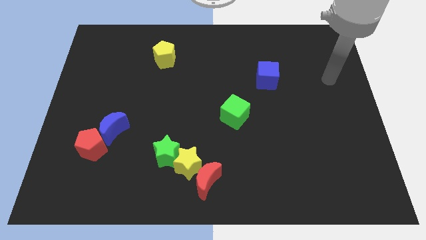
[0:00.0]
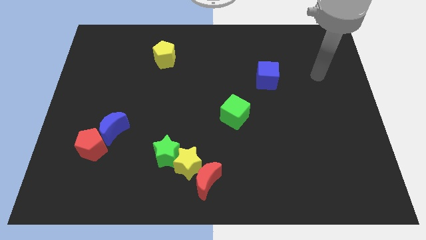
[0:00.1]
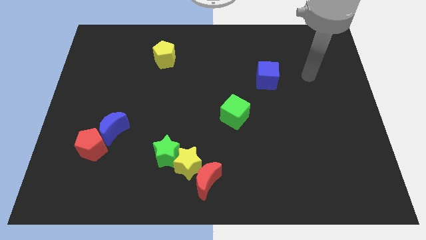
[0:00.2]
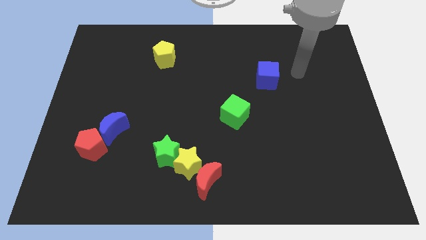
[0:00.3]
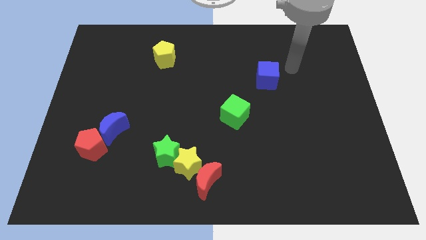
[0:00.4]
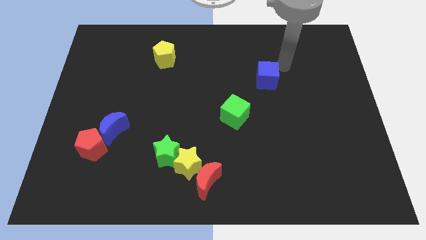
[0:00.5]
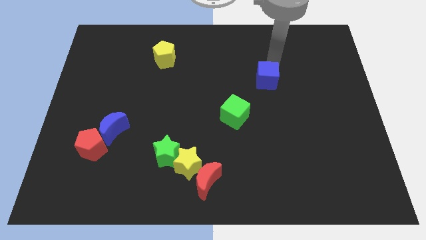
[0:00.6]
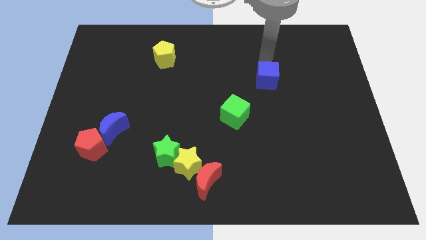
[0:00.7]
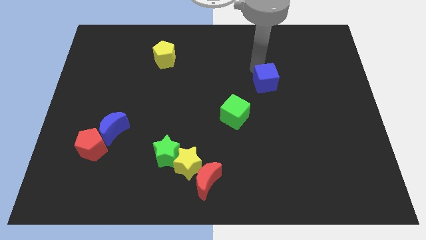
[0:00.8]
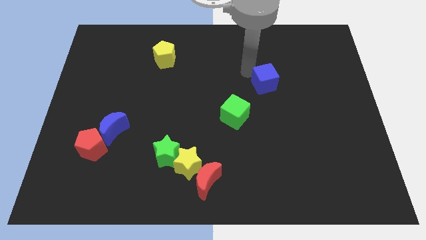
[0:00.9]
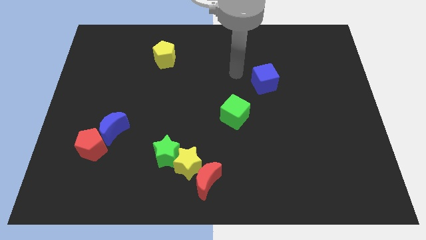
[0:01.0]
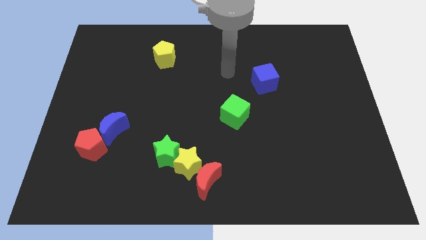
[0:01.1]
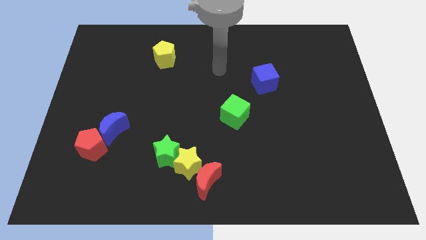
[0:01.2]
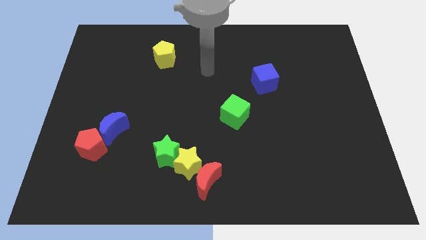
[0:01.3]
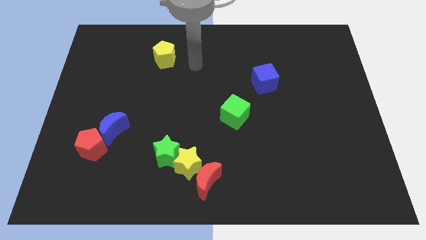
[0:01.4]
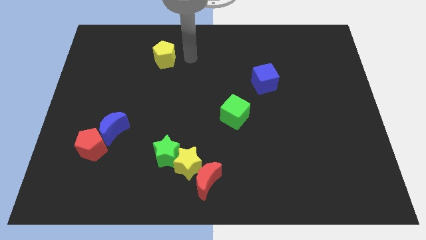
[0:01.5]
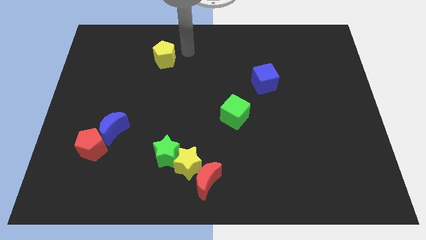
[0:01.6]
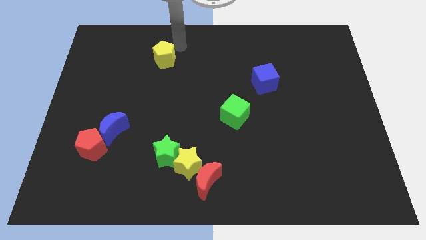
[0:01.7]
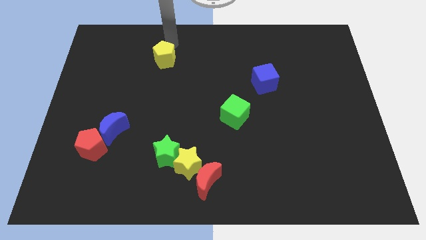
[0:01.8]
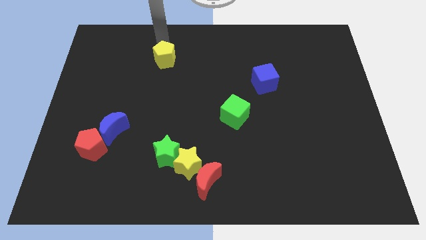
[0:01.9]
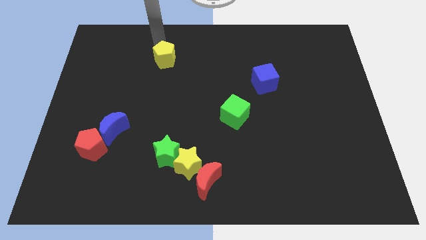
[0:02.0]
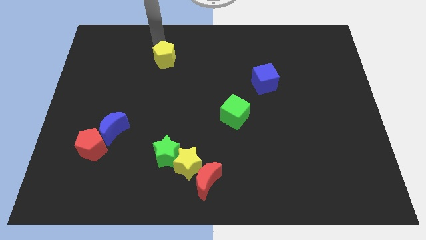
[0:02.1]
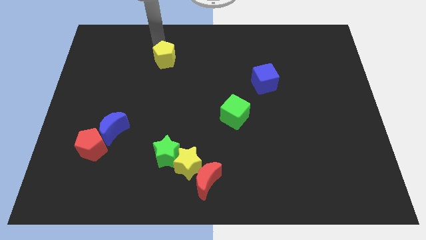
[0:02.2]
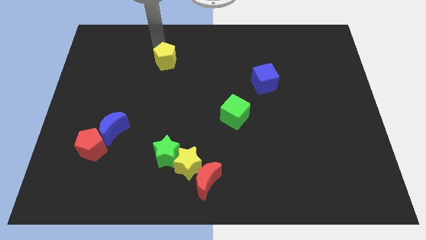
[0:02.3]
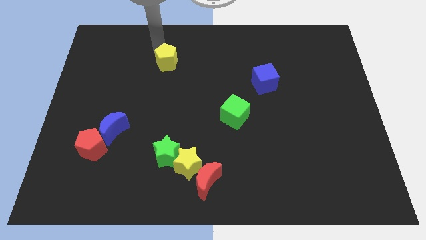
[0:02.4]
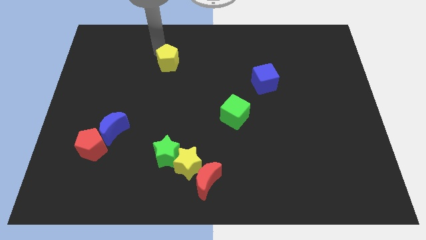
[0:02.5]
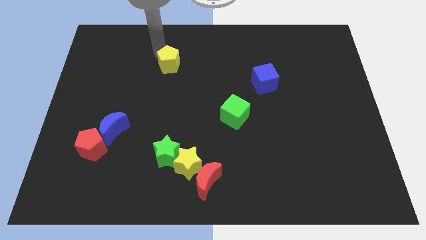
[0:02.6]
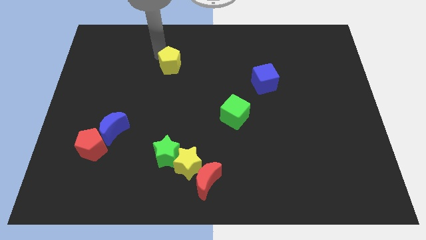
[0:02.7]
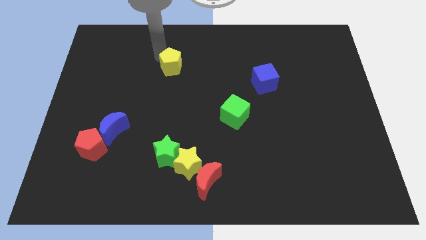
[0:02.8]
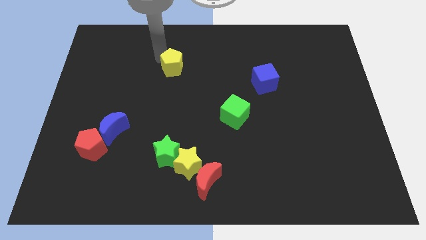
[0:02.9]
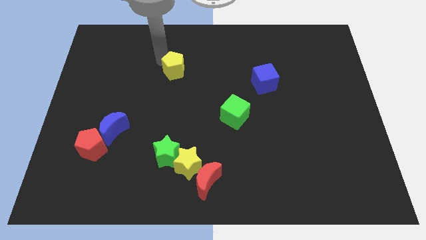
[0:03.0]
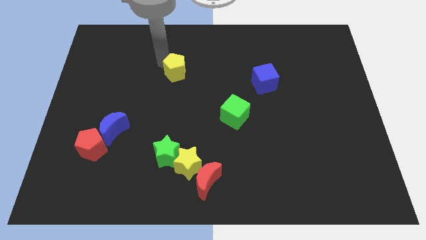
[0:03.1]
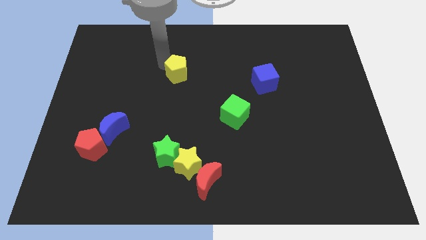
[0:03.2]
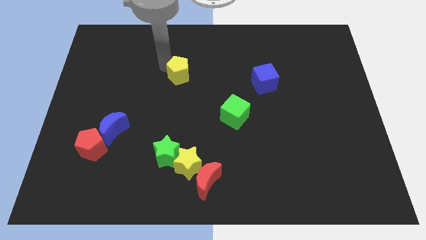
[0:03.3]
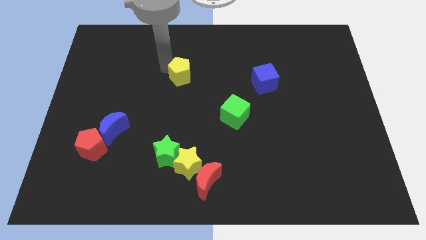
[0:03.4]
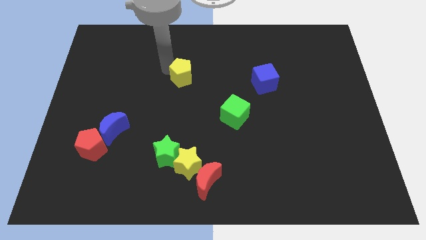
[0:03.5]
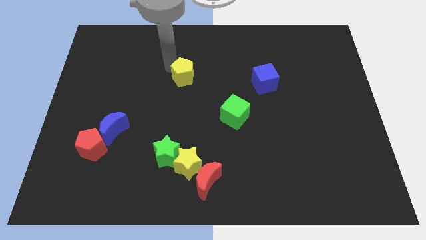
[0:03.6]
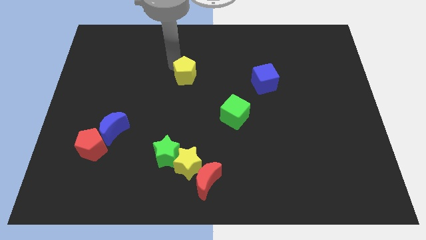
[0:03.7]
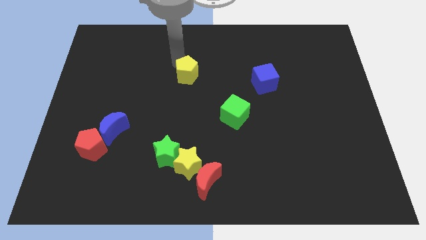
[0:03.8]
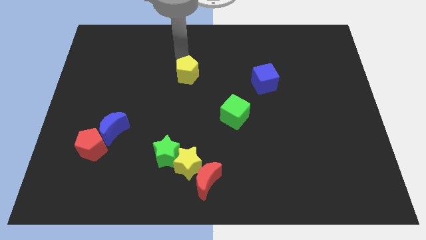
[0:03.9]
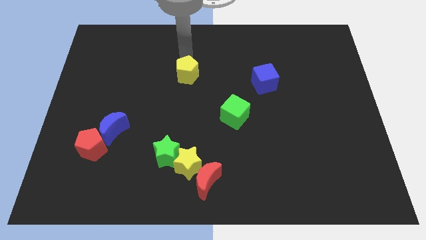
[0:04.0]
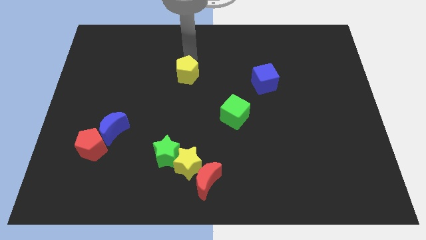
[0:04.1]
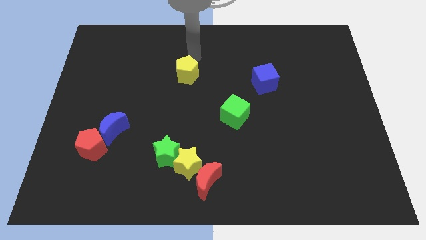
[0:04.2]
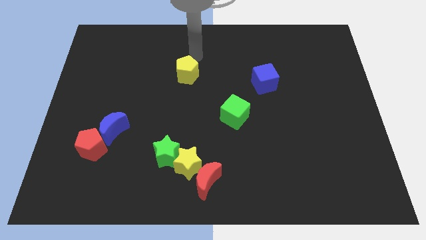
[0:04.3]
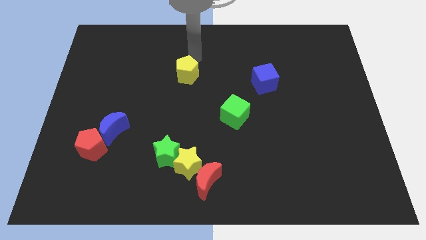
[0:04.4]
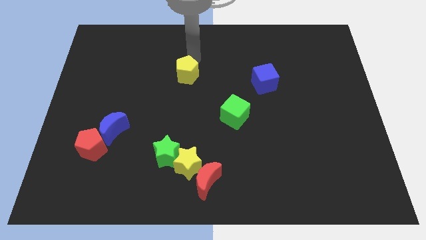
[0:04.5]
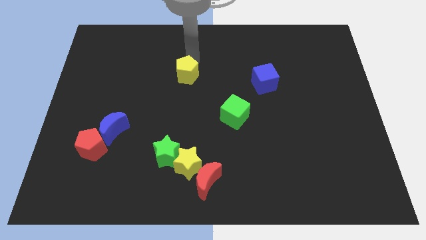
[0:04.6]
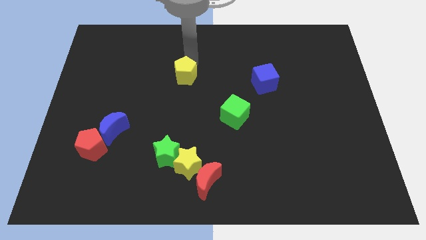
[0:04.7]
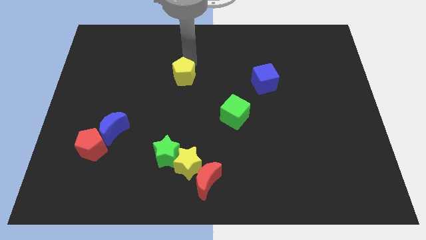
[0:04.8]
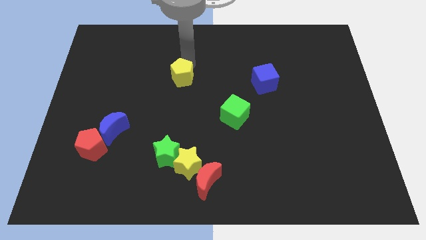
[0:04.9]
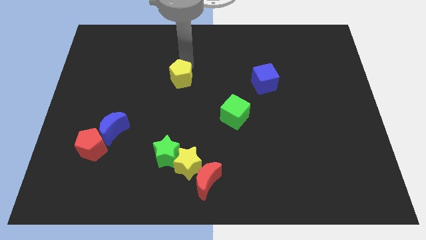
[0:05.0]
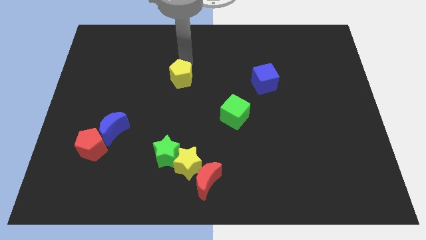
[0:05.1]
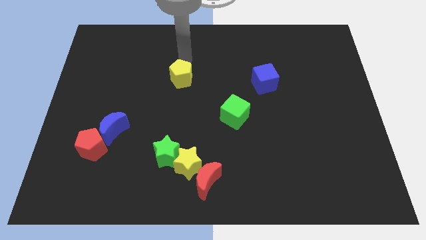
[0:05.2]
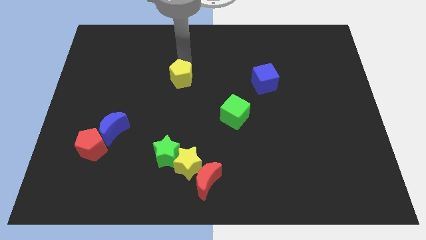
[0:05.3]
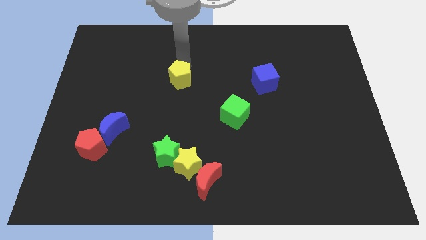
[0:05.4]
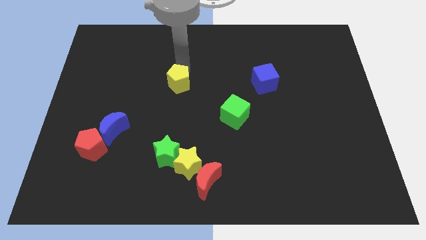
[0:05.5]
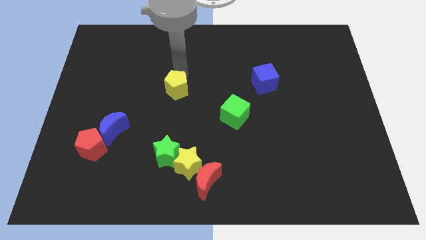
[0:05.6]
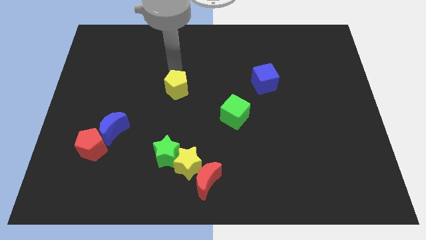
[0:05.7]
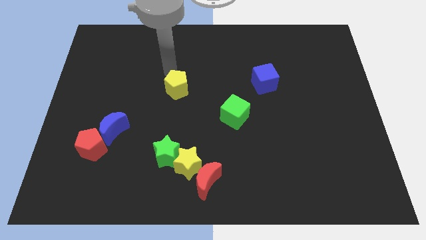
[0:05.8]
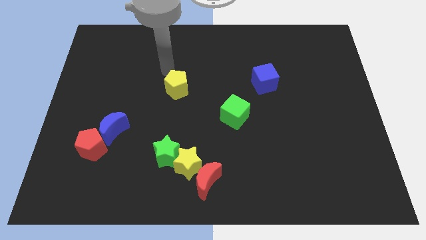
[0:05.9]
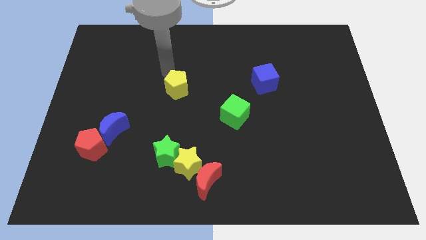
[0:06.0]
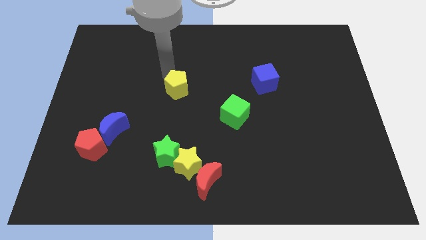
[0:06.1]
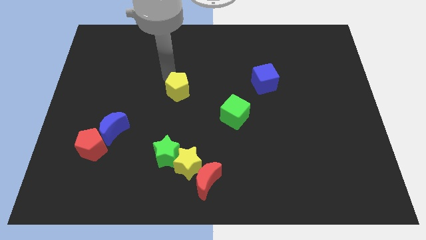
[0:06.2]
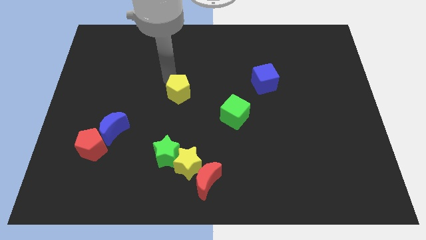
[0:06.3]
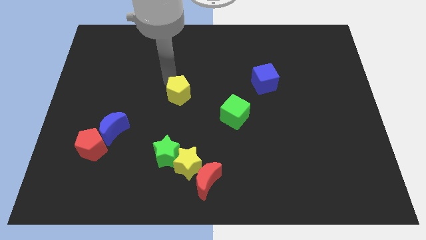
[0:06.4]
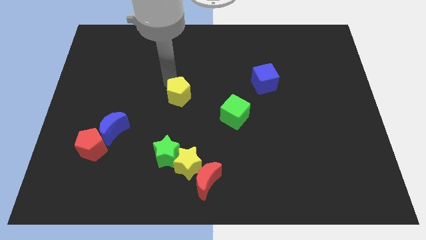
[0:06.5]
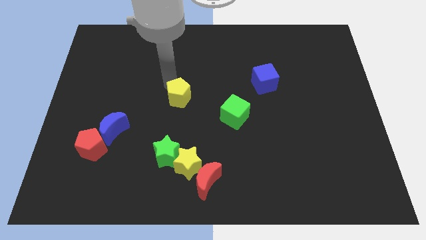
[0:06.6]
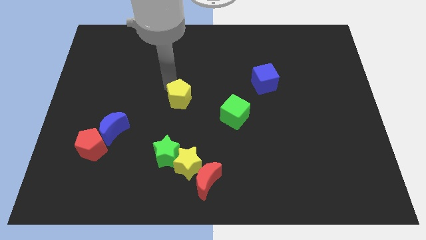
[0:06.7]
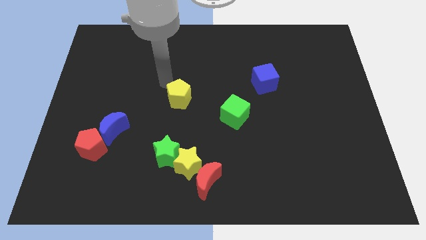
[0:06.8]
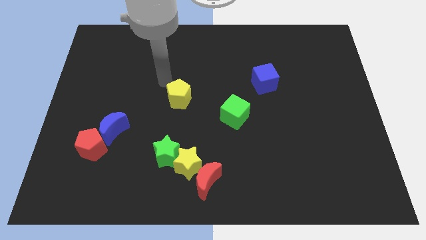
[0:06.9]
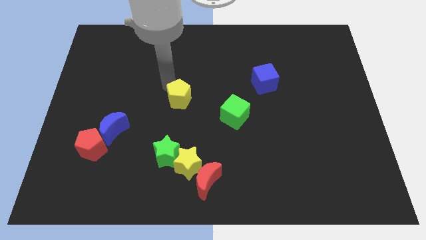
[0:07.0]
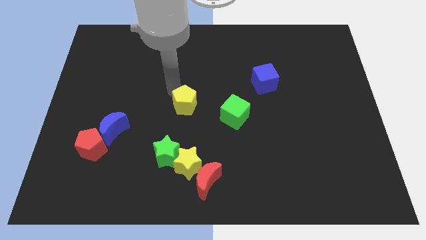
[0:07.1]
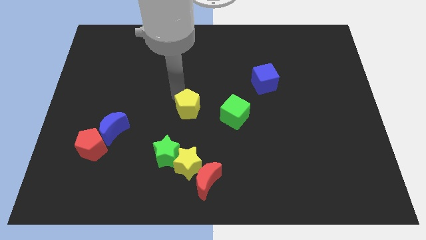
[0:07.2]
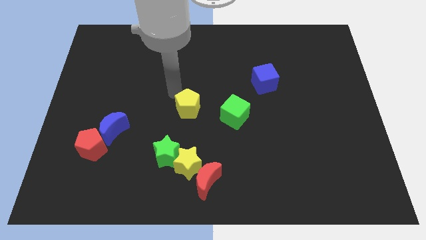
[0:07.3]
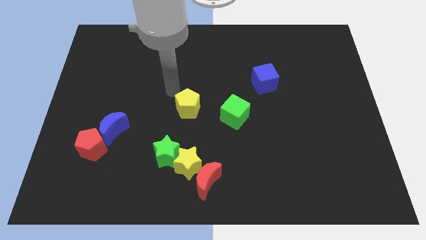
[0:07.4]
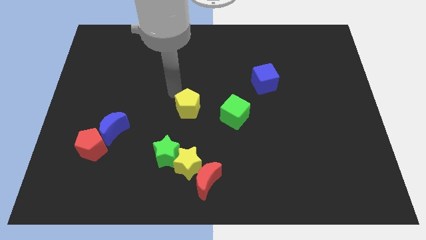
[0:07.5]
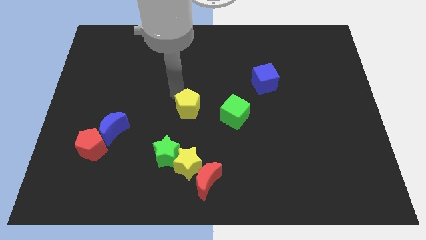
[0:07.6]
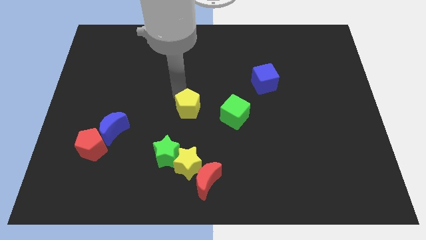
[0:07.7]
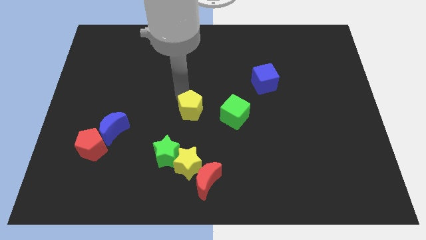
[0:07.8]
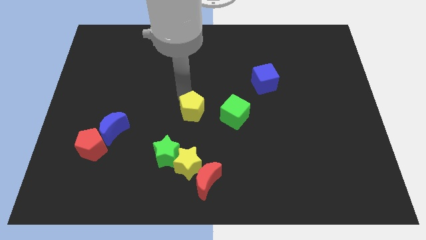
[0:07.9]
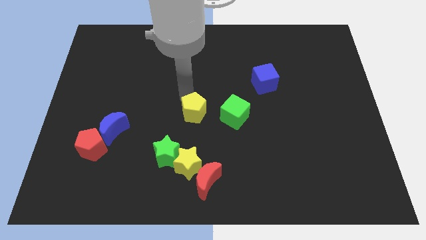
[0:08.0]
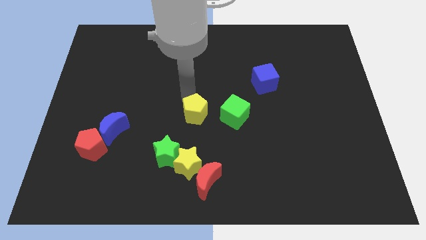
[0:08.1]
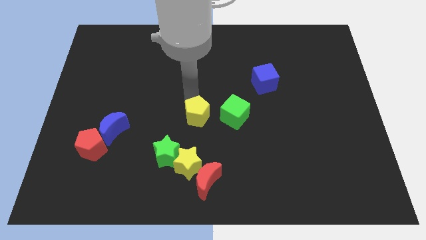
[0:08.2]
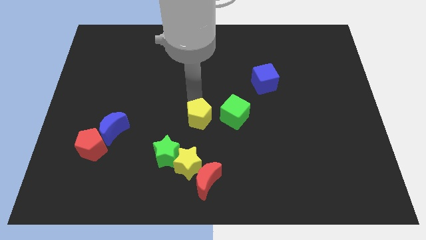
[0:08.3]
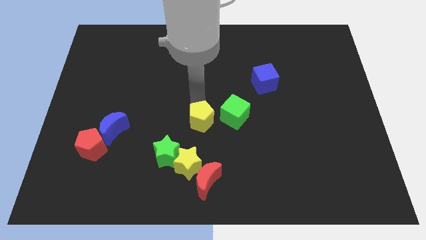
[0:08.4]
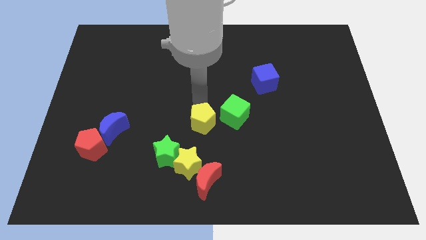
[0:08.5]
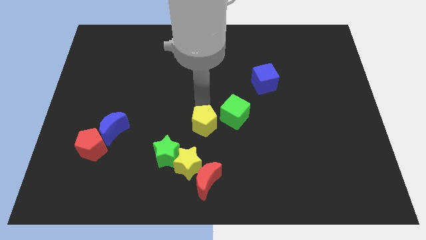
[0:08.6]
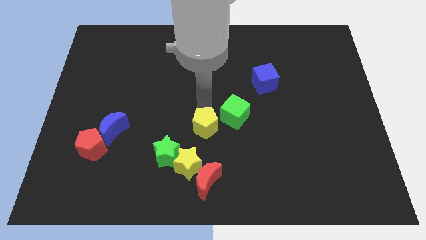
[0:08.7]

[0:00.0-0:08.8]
put the yellow pentagon diagonally up and to the right of the yellow star
